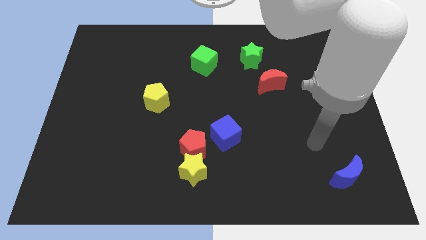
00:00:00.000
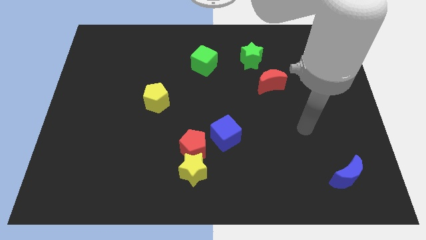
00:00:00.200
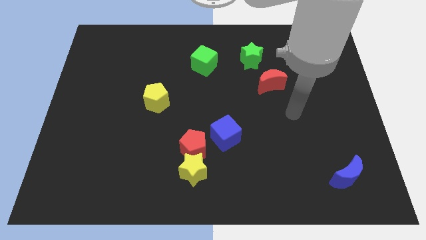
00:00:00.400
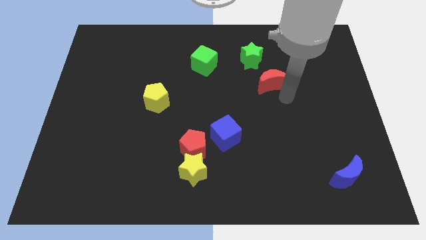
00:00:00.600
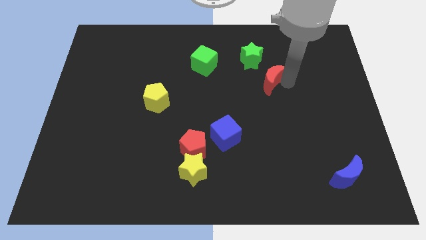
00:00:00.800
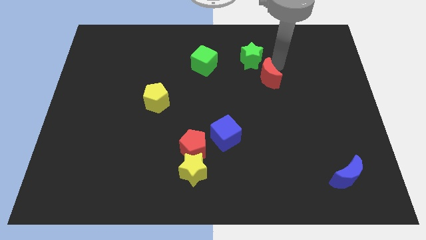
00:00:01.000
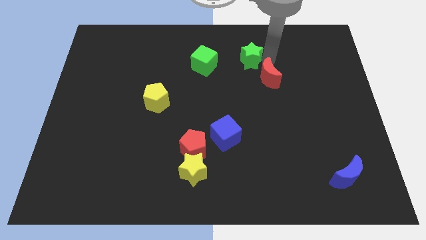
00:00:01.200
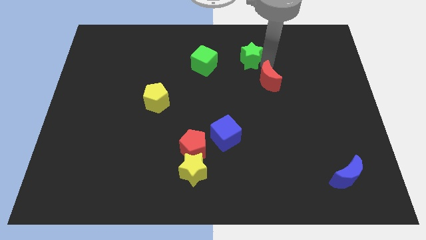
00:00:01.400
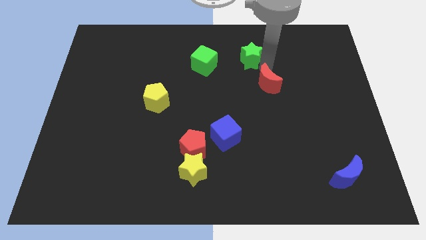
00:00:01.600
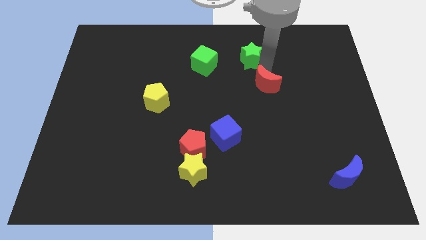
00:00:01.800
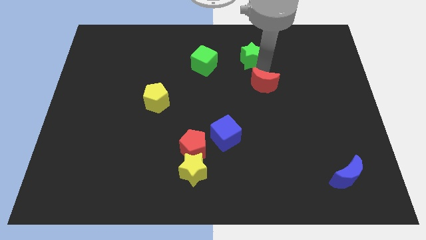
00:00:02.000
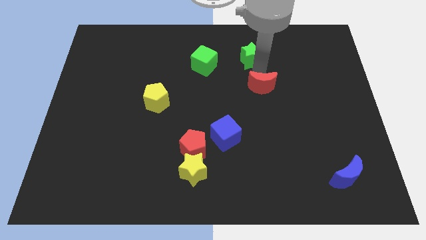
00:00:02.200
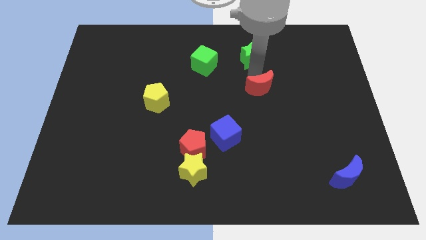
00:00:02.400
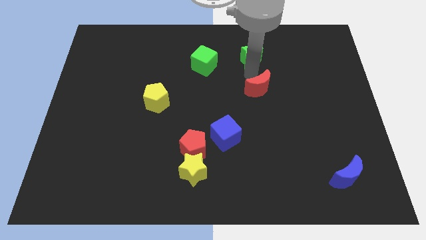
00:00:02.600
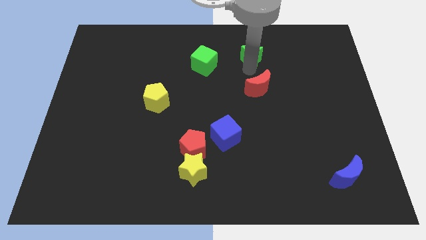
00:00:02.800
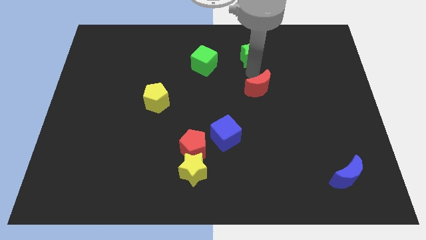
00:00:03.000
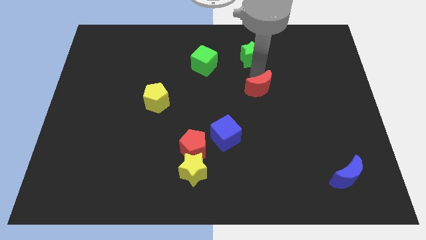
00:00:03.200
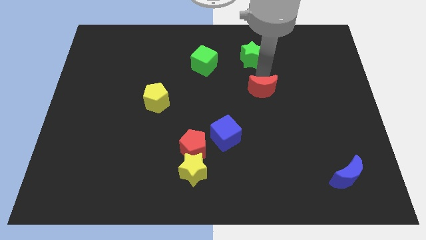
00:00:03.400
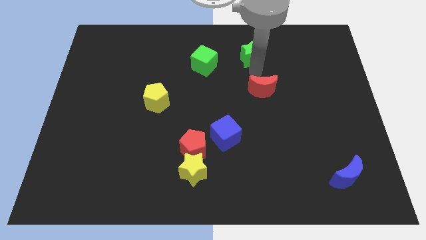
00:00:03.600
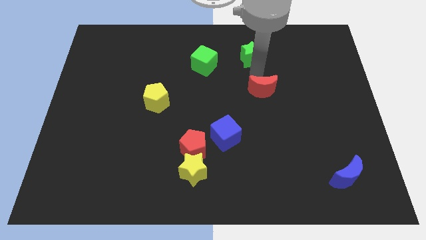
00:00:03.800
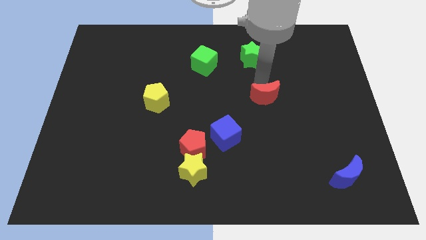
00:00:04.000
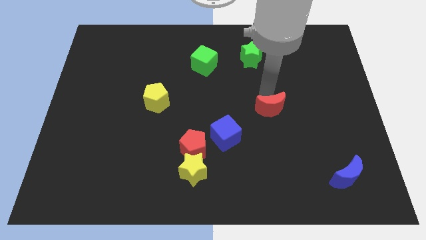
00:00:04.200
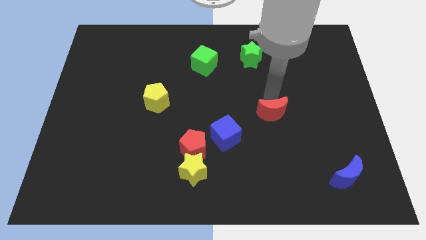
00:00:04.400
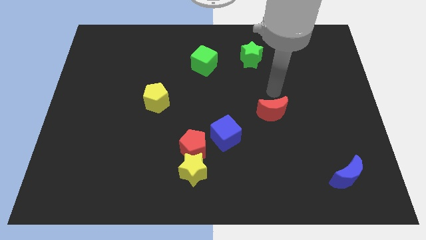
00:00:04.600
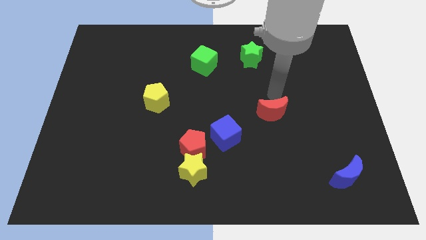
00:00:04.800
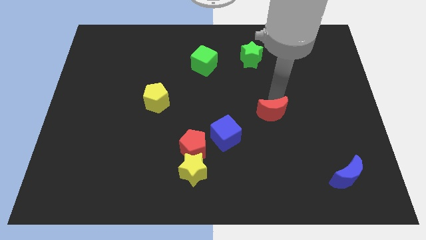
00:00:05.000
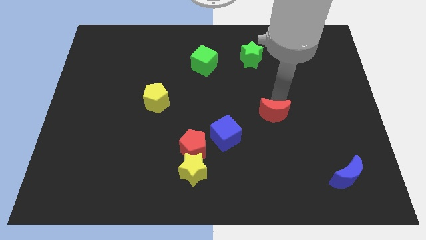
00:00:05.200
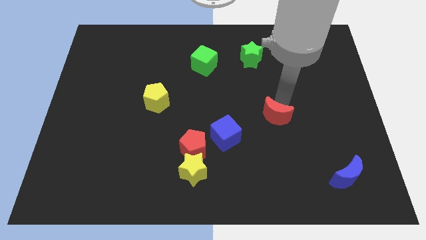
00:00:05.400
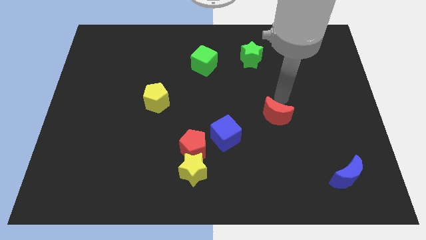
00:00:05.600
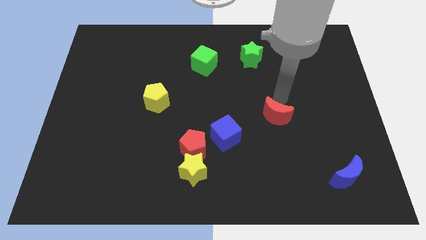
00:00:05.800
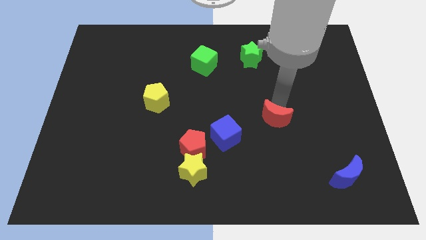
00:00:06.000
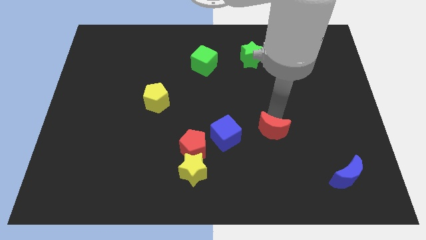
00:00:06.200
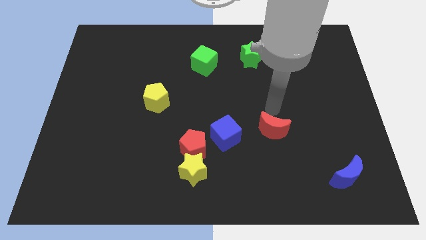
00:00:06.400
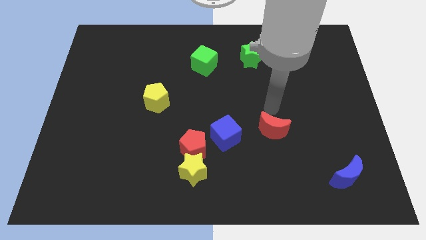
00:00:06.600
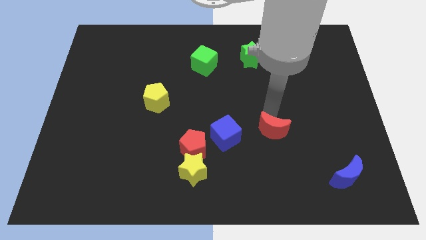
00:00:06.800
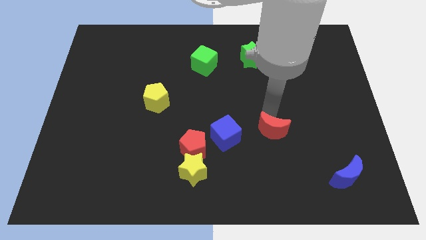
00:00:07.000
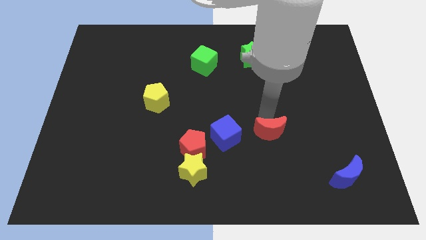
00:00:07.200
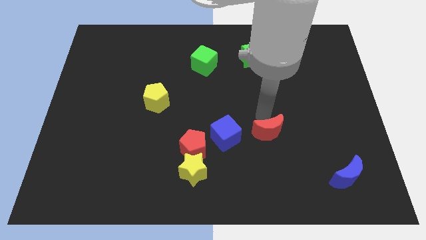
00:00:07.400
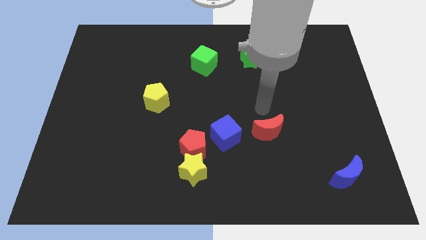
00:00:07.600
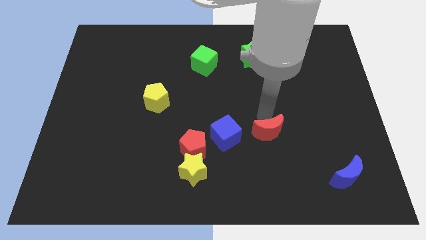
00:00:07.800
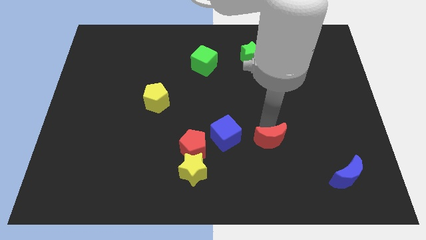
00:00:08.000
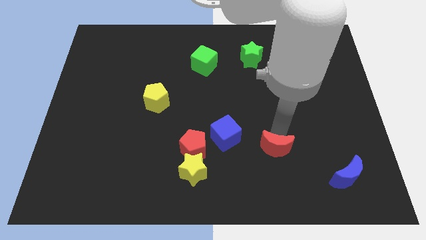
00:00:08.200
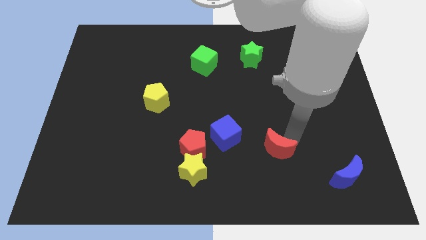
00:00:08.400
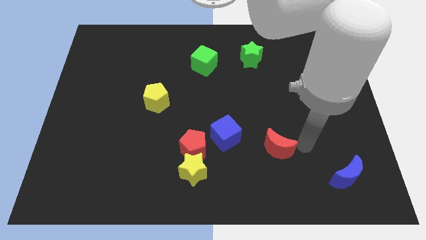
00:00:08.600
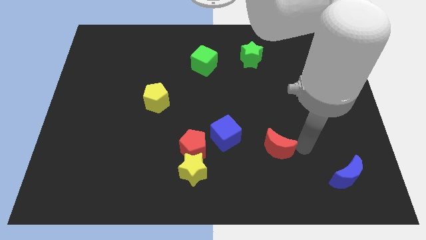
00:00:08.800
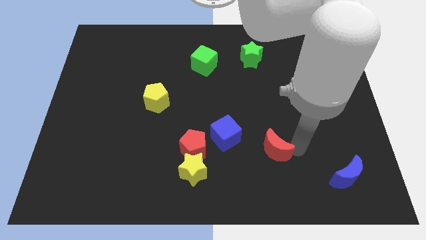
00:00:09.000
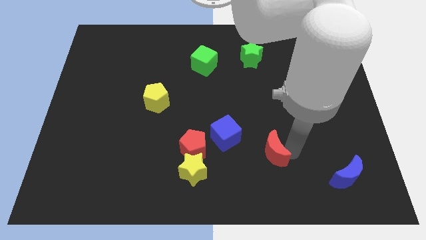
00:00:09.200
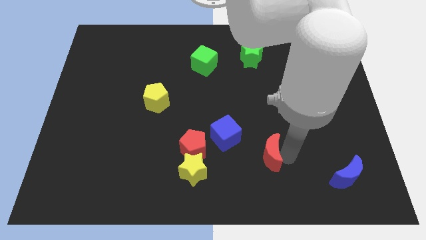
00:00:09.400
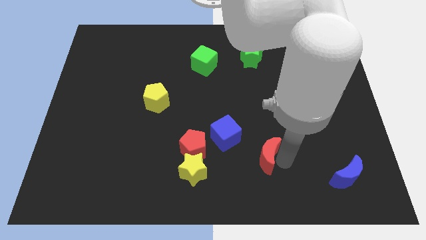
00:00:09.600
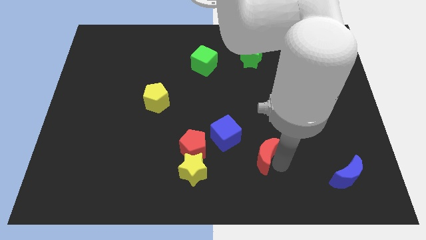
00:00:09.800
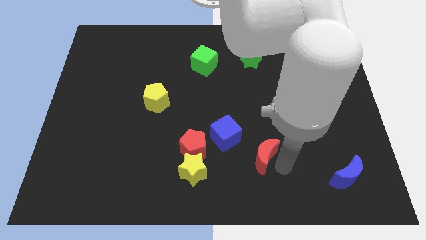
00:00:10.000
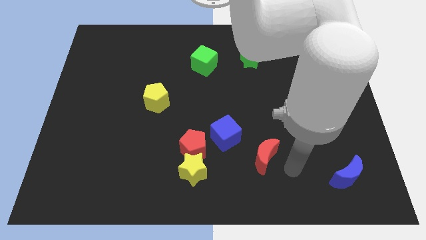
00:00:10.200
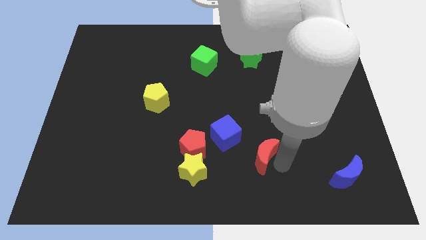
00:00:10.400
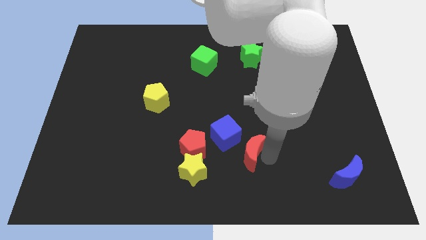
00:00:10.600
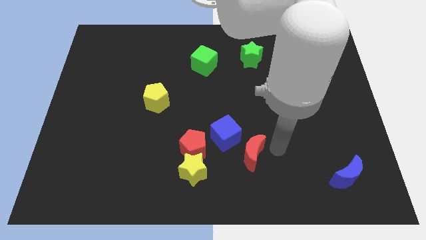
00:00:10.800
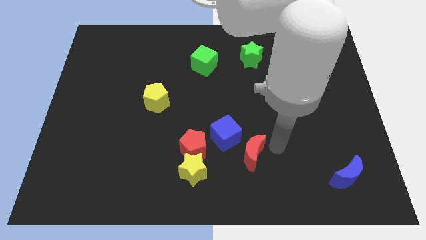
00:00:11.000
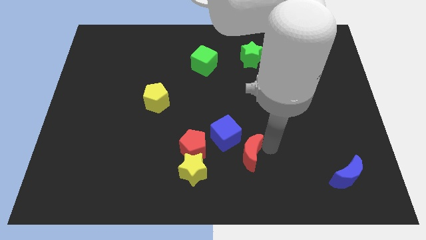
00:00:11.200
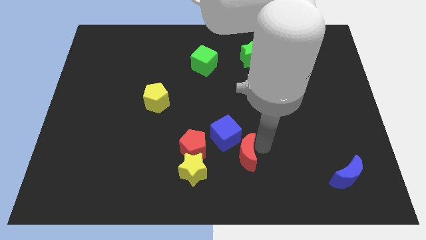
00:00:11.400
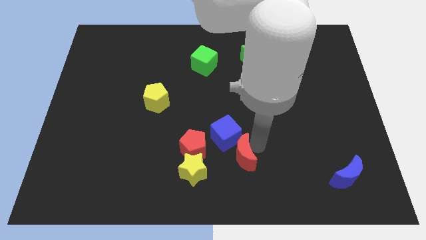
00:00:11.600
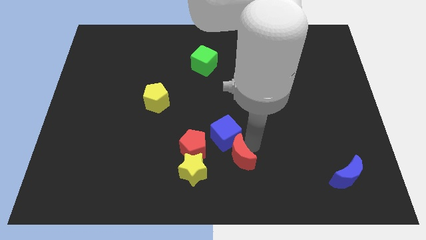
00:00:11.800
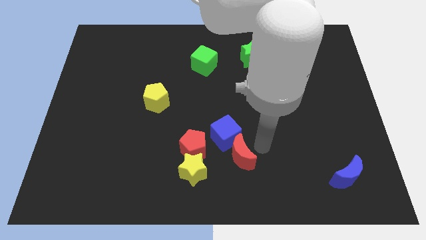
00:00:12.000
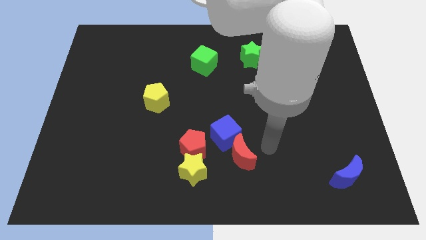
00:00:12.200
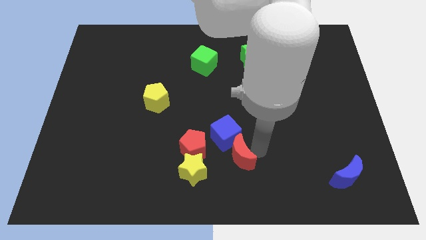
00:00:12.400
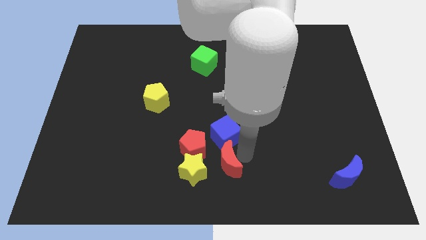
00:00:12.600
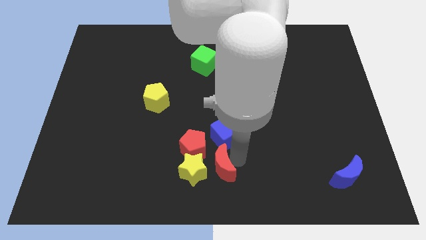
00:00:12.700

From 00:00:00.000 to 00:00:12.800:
push the red moon close to the yellow star

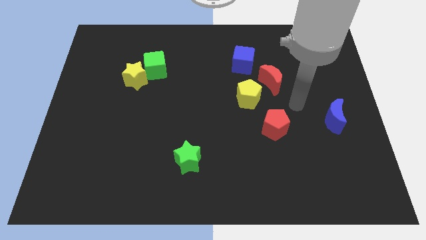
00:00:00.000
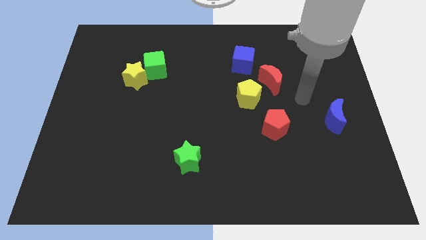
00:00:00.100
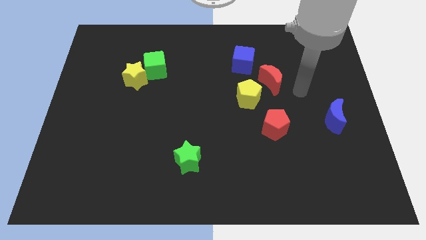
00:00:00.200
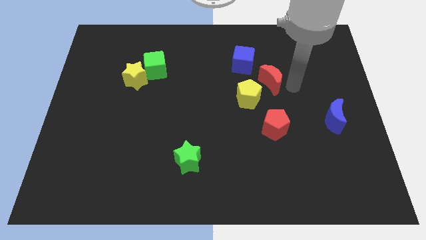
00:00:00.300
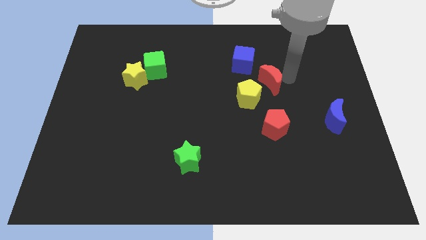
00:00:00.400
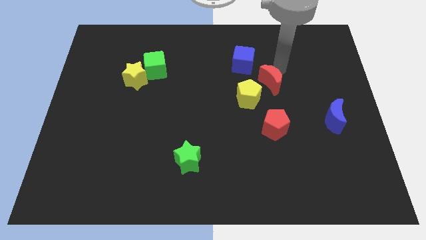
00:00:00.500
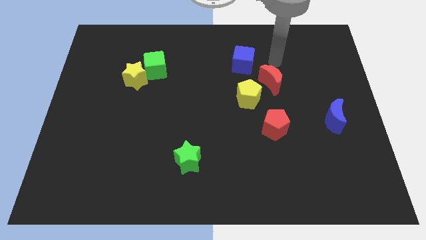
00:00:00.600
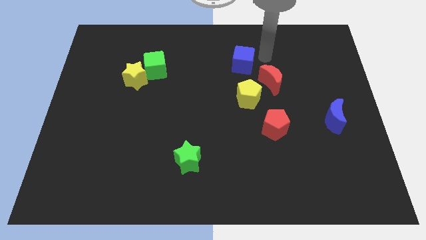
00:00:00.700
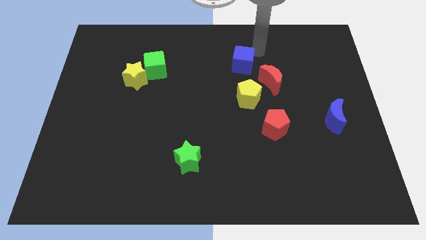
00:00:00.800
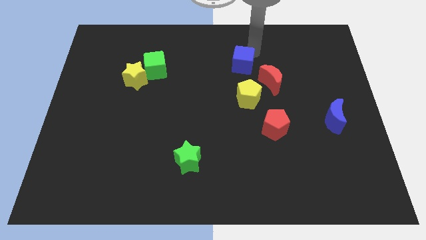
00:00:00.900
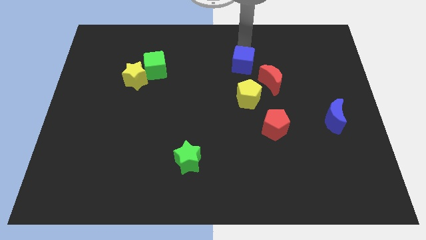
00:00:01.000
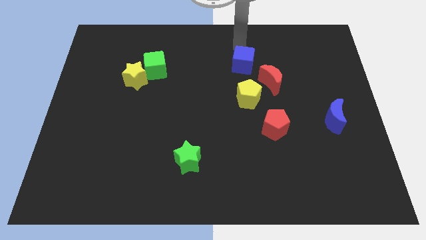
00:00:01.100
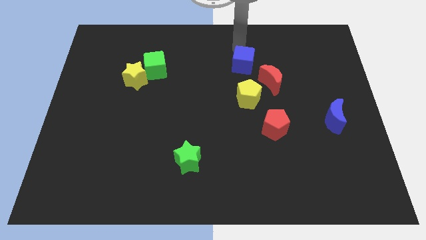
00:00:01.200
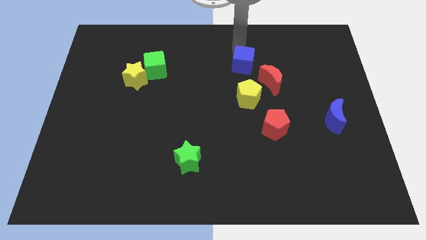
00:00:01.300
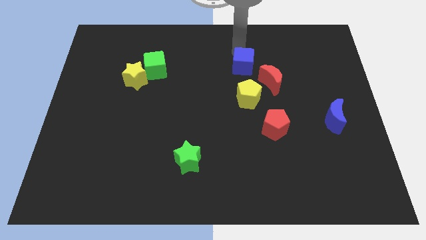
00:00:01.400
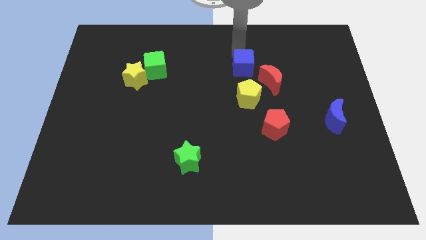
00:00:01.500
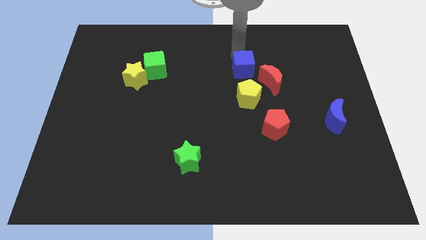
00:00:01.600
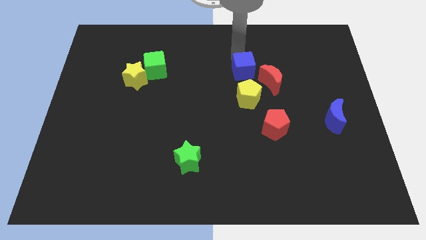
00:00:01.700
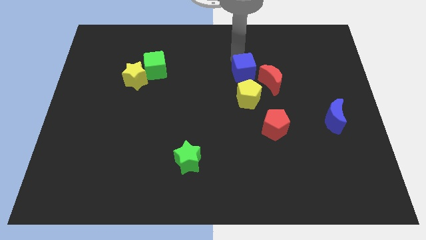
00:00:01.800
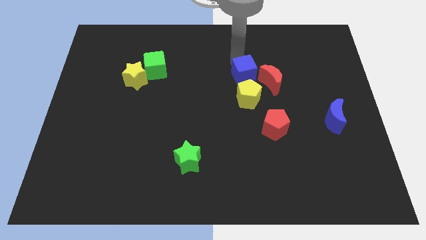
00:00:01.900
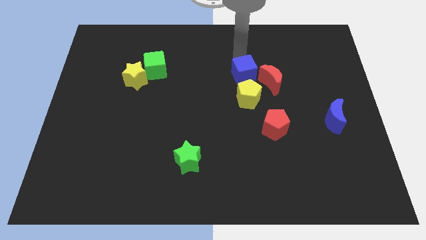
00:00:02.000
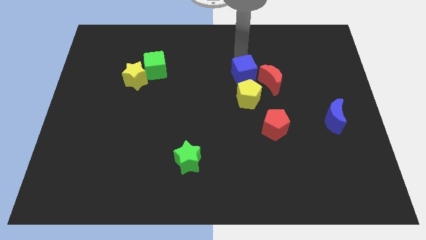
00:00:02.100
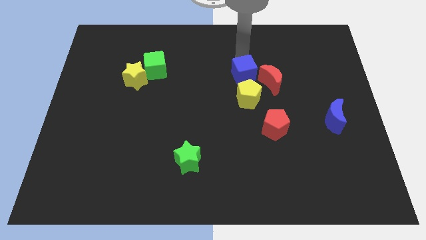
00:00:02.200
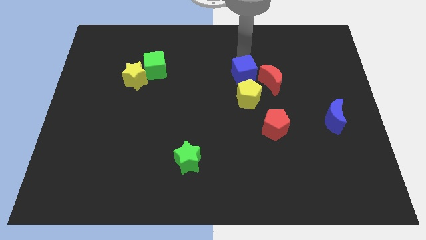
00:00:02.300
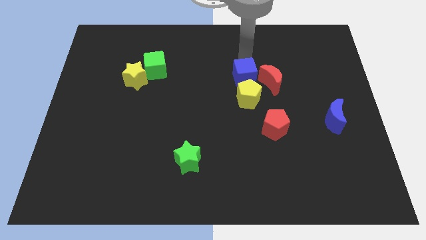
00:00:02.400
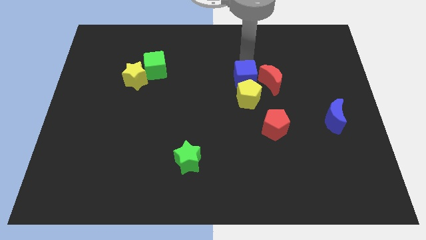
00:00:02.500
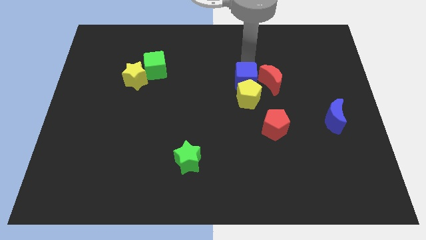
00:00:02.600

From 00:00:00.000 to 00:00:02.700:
move the blue cube to the yellow pentagon
